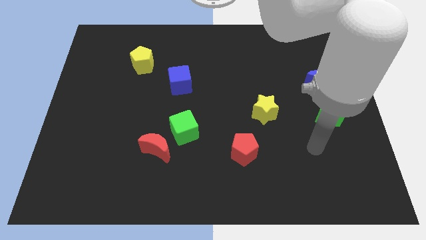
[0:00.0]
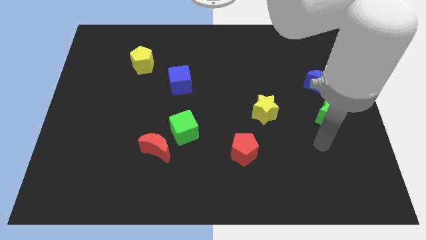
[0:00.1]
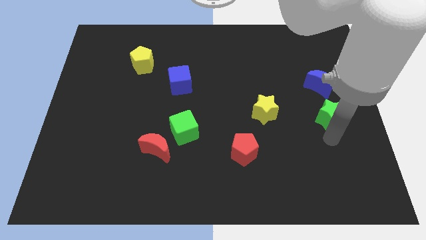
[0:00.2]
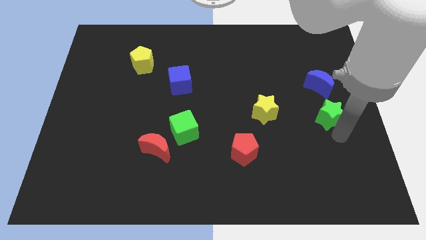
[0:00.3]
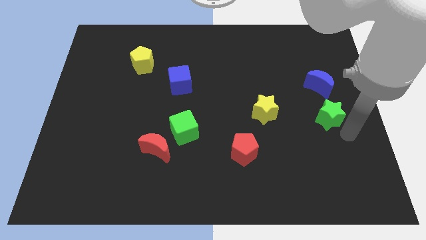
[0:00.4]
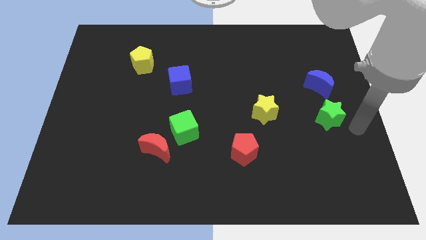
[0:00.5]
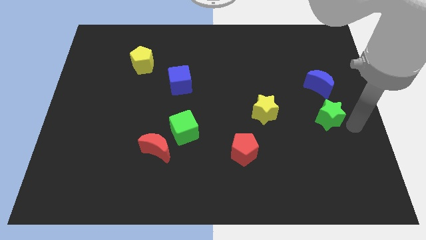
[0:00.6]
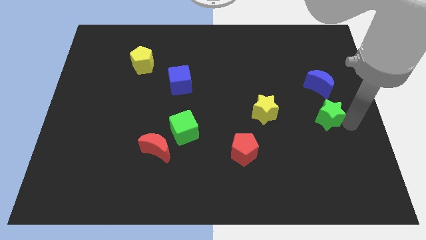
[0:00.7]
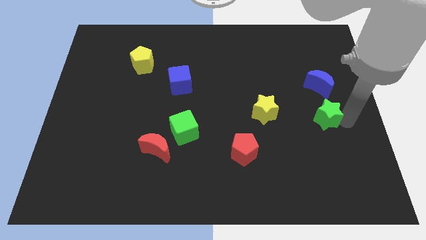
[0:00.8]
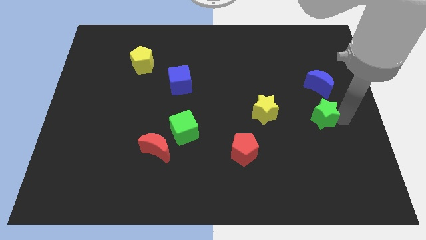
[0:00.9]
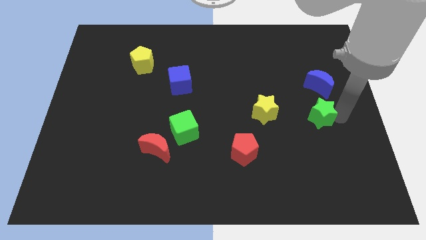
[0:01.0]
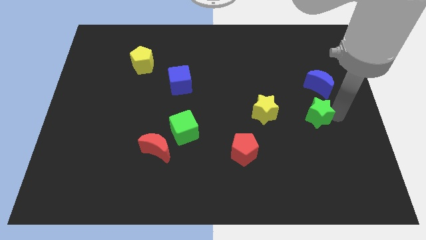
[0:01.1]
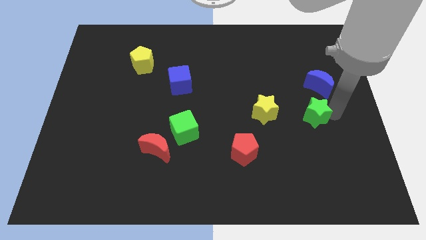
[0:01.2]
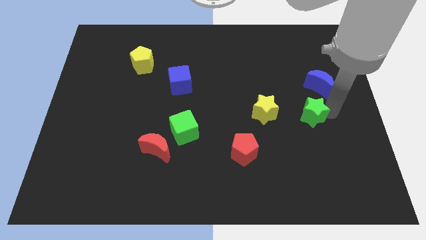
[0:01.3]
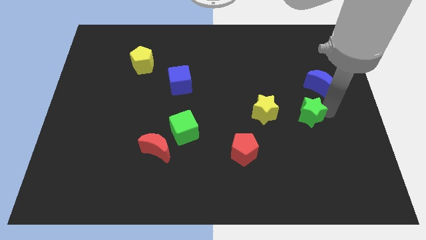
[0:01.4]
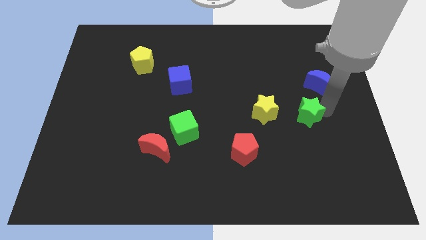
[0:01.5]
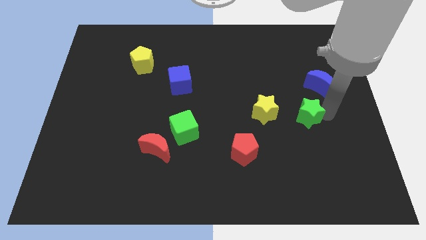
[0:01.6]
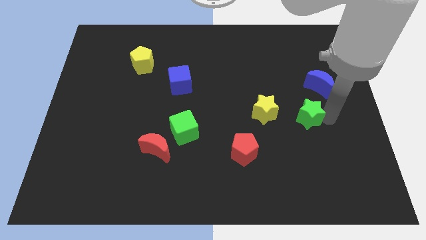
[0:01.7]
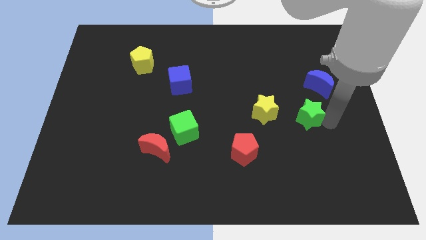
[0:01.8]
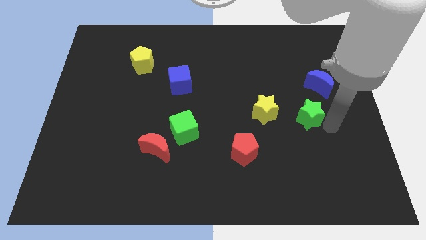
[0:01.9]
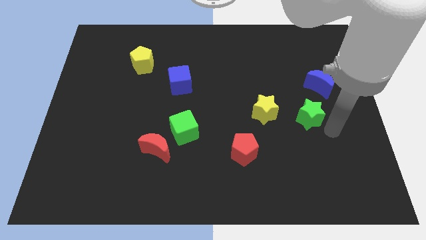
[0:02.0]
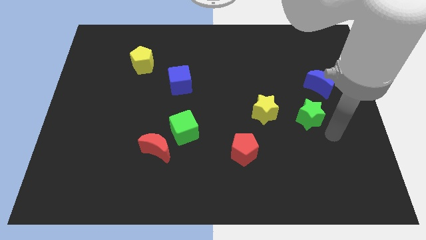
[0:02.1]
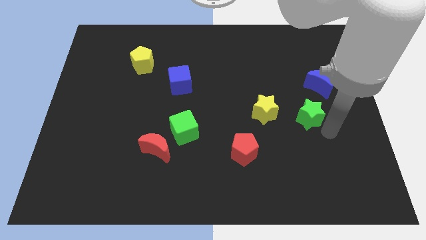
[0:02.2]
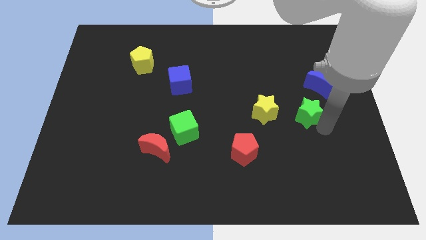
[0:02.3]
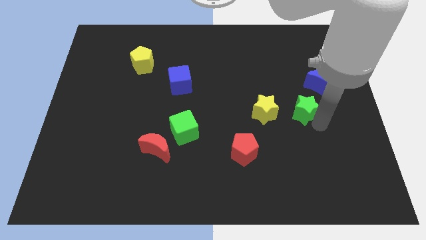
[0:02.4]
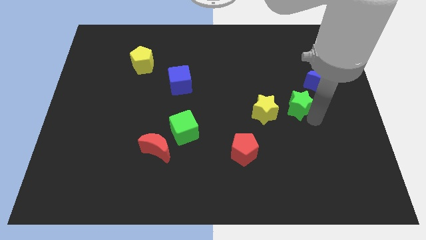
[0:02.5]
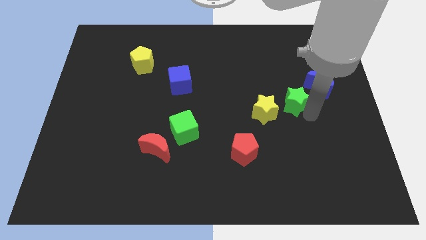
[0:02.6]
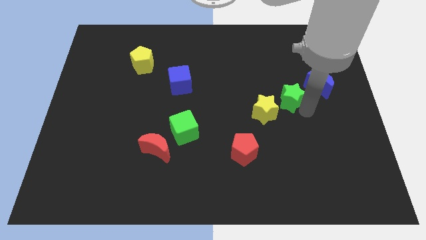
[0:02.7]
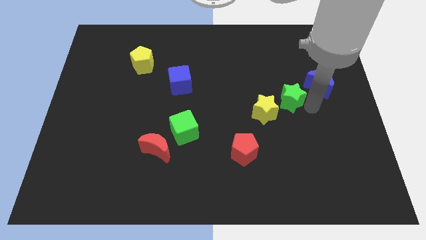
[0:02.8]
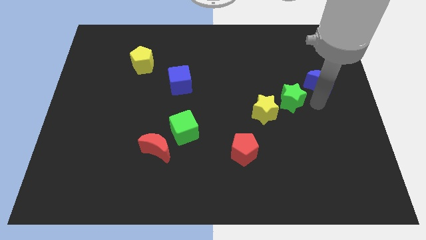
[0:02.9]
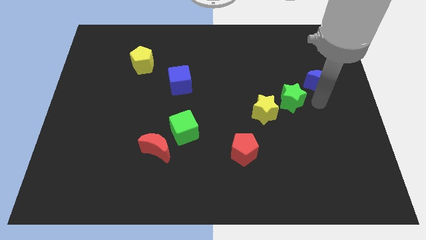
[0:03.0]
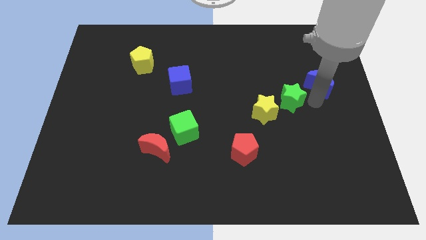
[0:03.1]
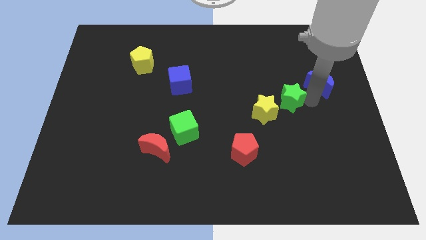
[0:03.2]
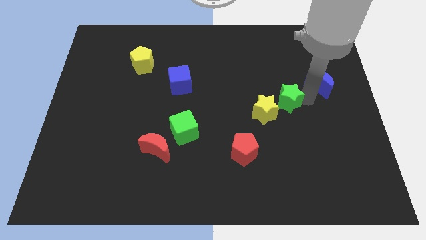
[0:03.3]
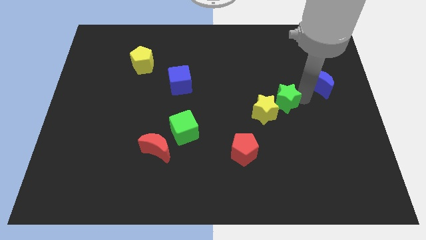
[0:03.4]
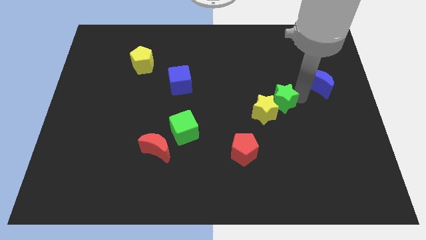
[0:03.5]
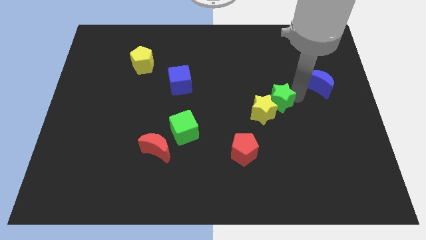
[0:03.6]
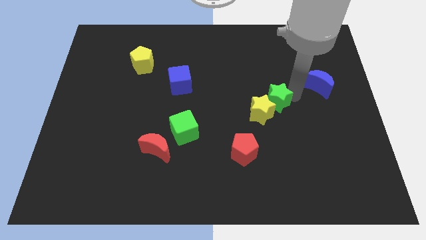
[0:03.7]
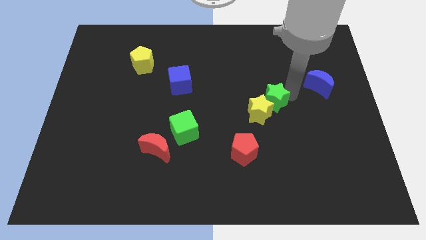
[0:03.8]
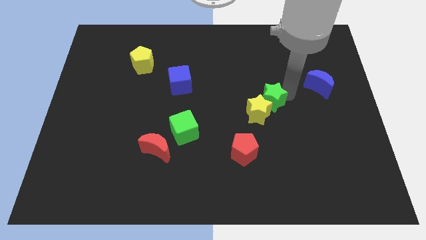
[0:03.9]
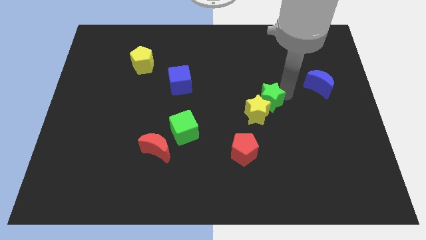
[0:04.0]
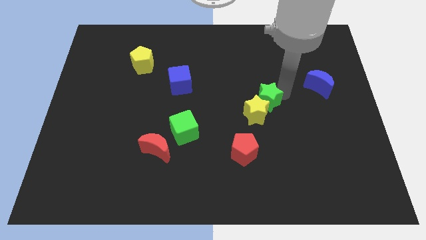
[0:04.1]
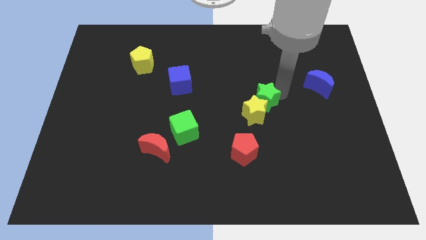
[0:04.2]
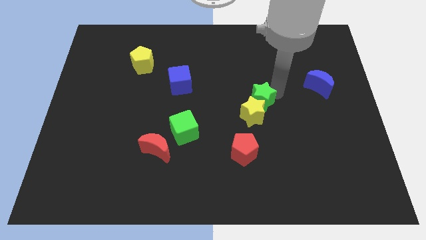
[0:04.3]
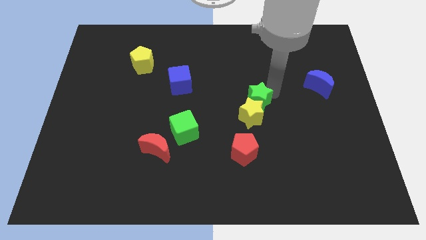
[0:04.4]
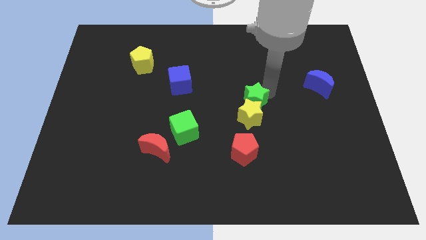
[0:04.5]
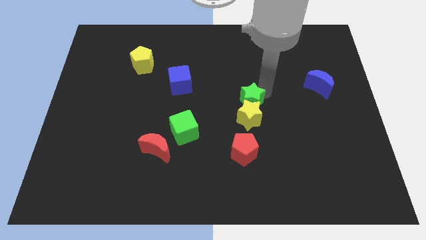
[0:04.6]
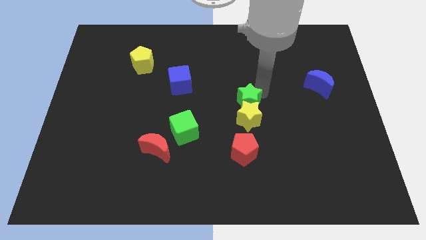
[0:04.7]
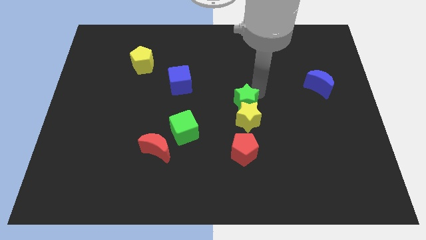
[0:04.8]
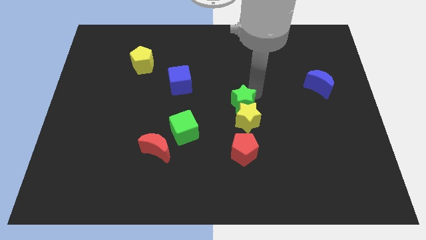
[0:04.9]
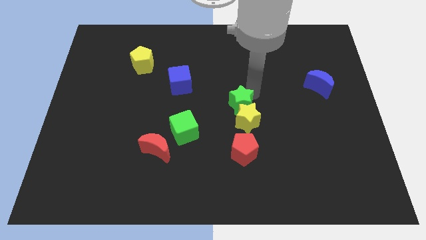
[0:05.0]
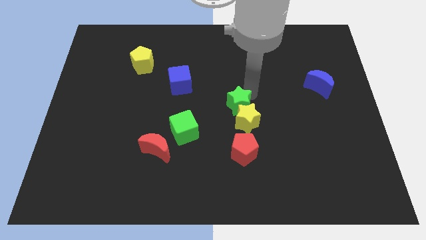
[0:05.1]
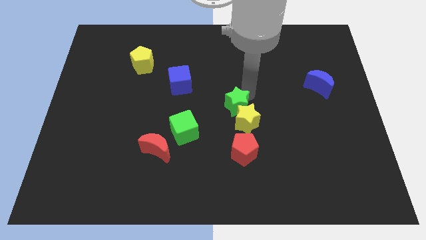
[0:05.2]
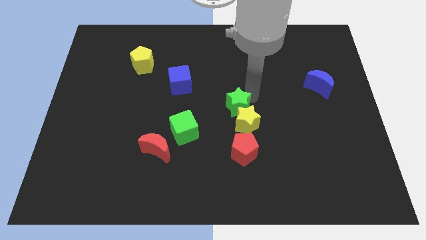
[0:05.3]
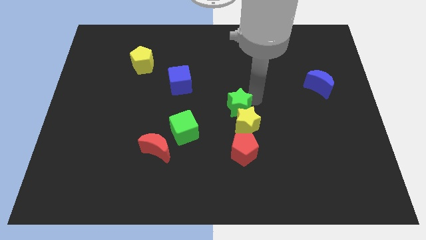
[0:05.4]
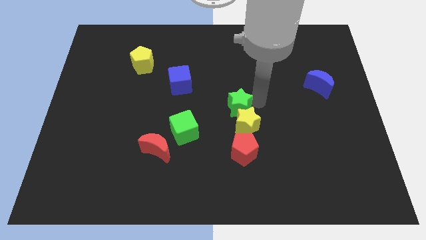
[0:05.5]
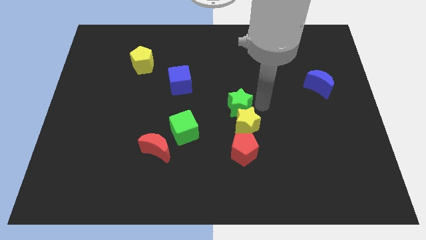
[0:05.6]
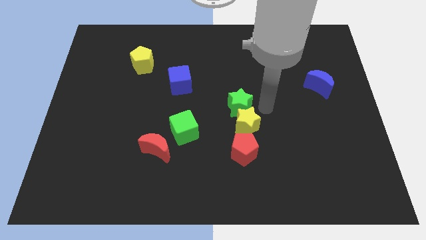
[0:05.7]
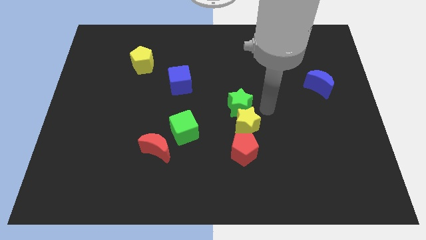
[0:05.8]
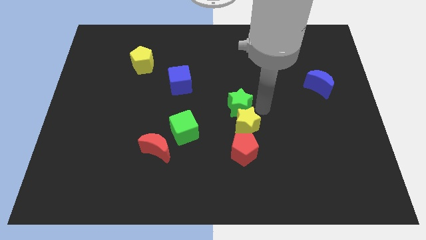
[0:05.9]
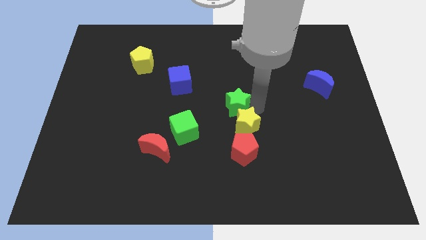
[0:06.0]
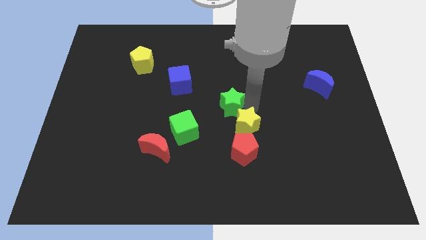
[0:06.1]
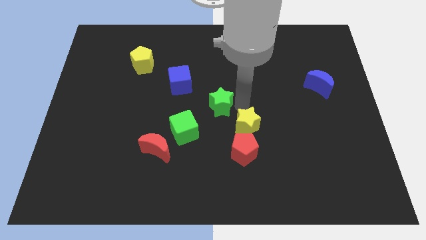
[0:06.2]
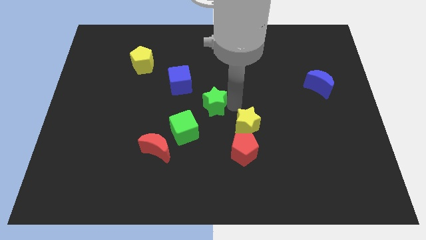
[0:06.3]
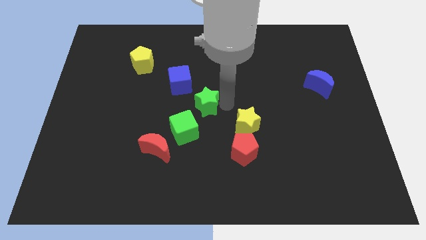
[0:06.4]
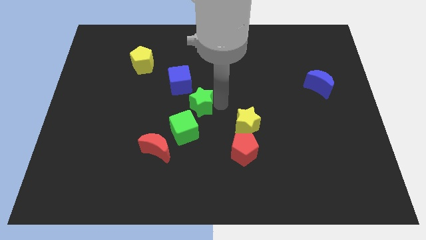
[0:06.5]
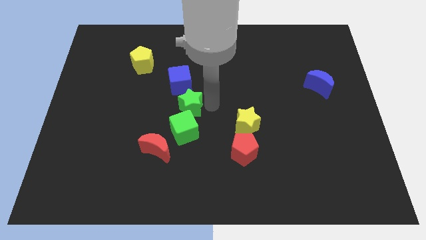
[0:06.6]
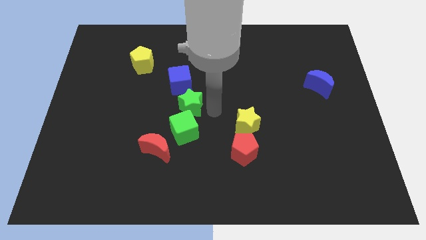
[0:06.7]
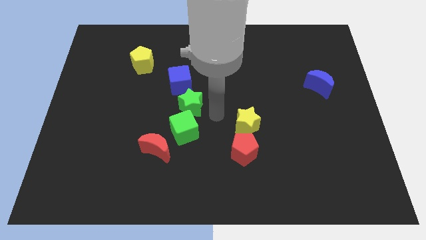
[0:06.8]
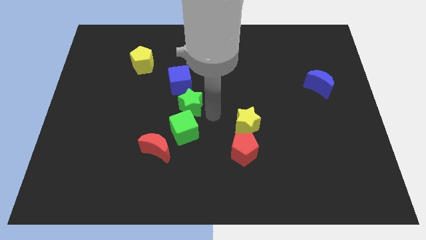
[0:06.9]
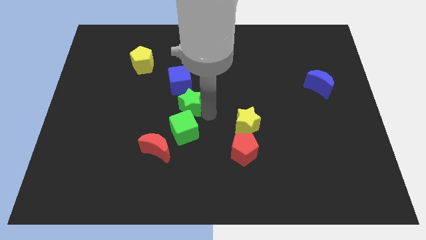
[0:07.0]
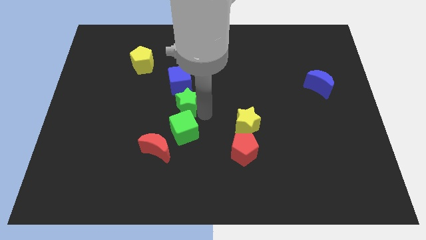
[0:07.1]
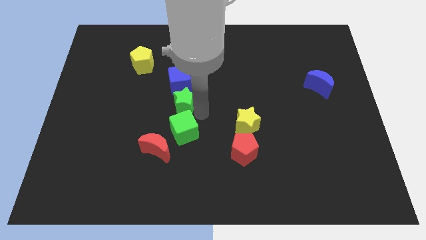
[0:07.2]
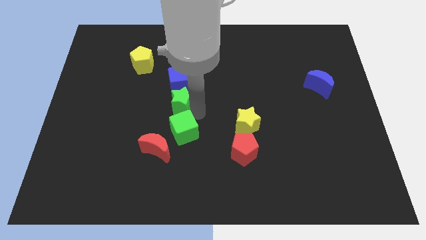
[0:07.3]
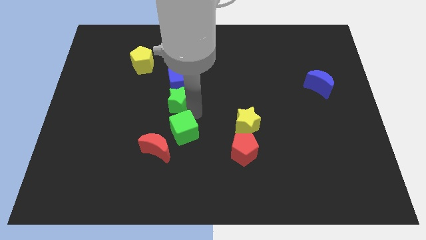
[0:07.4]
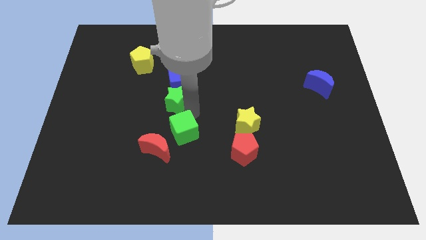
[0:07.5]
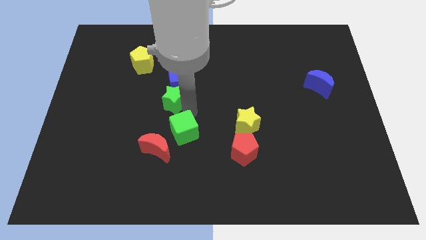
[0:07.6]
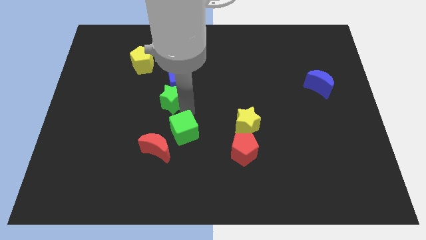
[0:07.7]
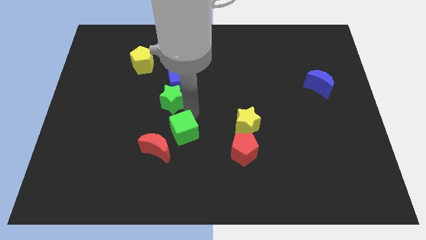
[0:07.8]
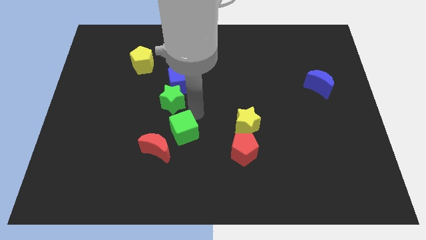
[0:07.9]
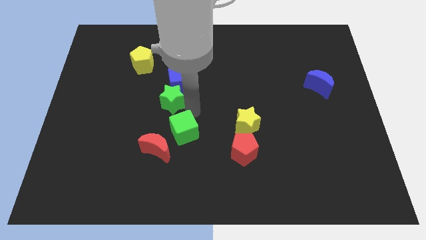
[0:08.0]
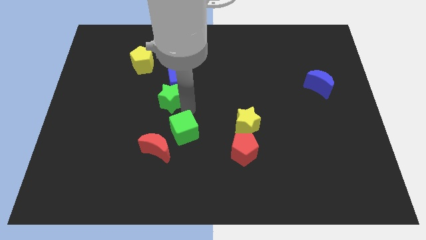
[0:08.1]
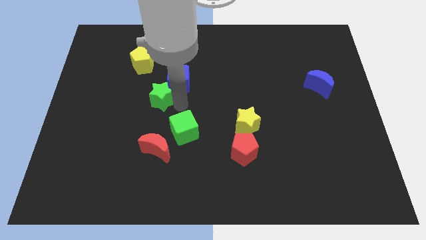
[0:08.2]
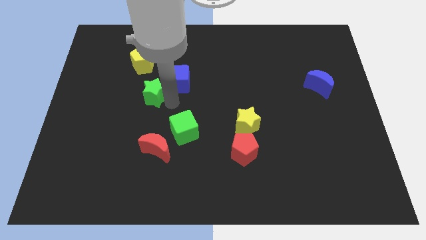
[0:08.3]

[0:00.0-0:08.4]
move the green star to the left of the blue cube

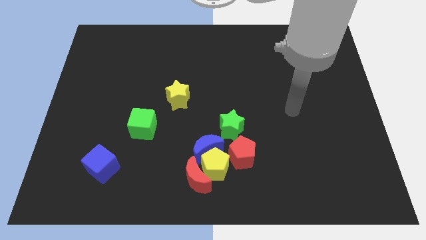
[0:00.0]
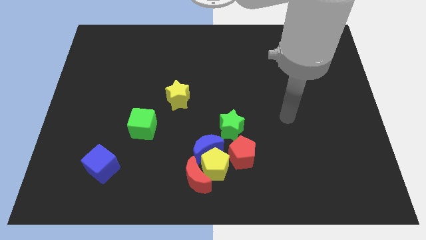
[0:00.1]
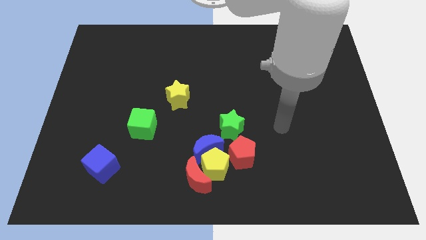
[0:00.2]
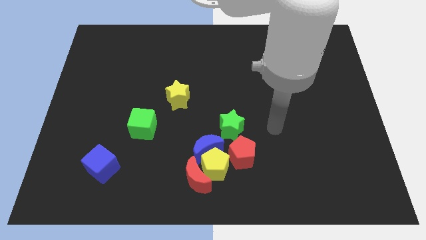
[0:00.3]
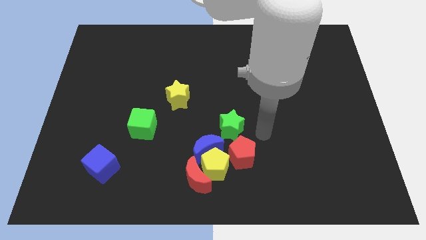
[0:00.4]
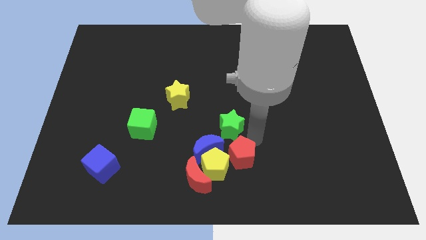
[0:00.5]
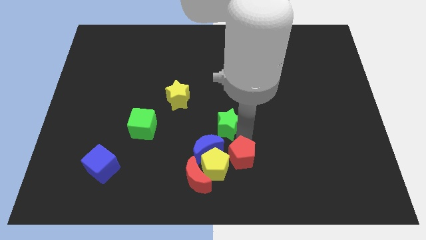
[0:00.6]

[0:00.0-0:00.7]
move the blue moon to the bottom of the green star
